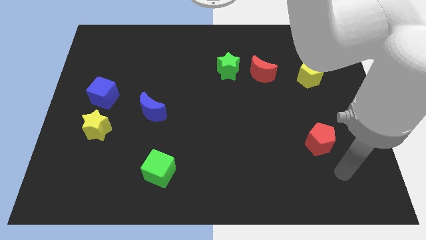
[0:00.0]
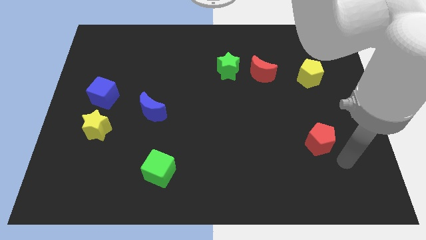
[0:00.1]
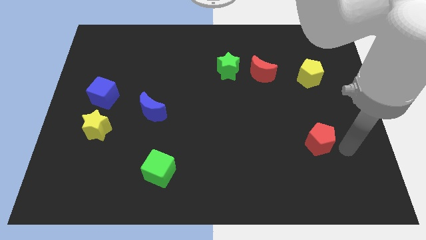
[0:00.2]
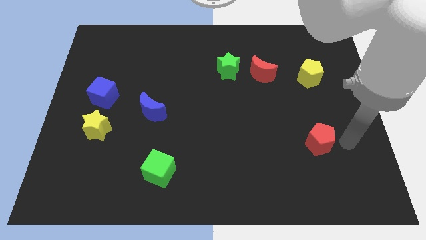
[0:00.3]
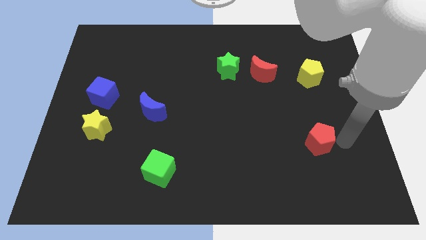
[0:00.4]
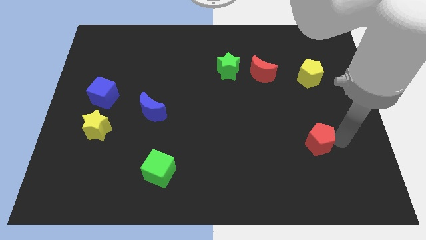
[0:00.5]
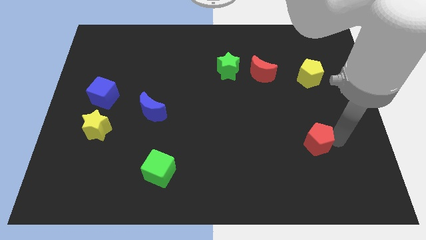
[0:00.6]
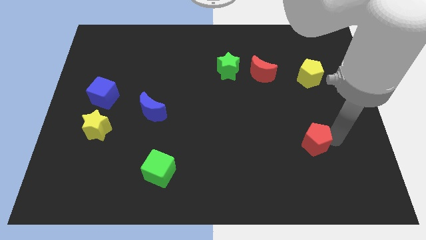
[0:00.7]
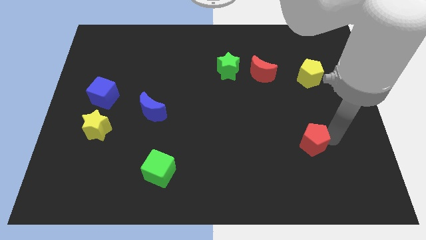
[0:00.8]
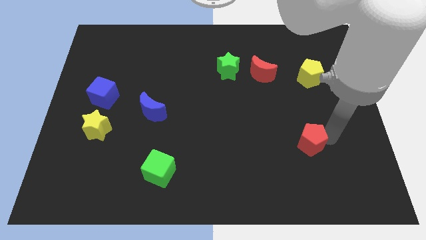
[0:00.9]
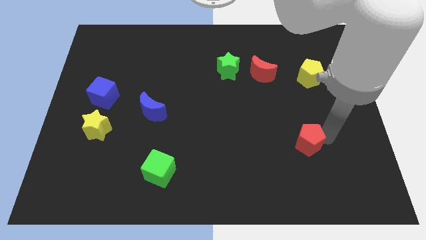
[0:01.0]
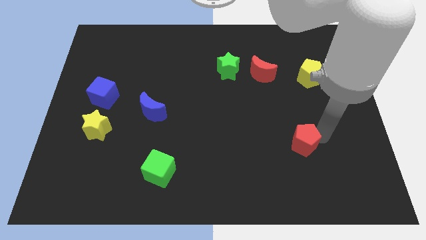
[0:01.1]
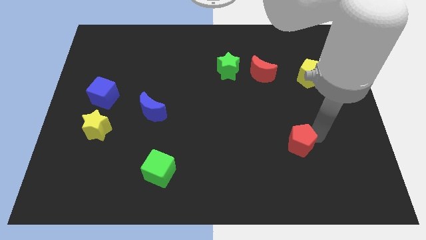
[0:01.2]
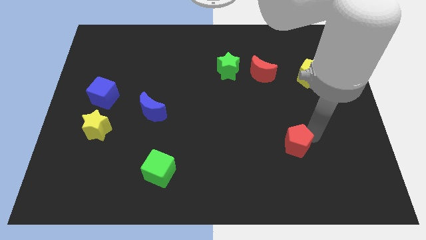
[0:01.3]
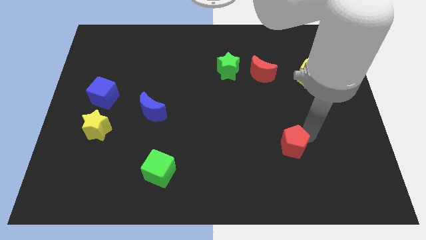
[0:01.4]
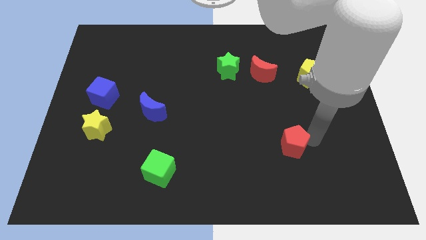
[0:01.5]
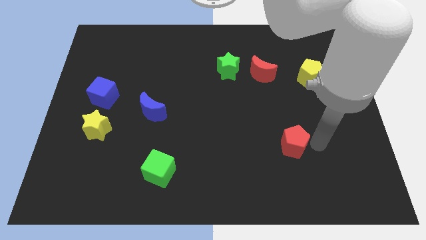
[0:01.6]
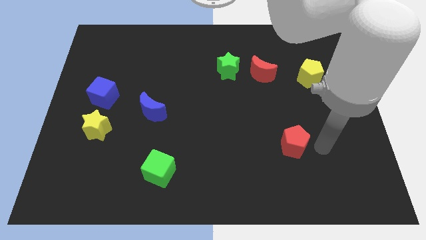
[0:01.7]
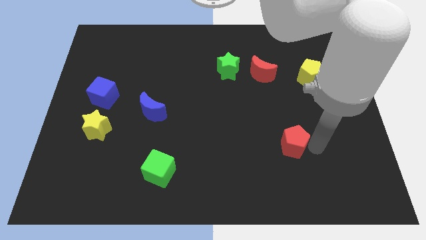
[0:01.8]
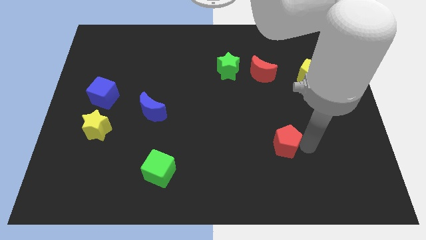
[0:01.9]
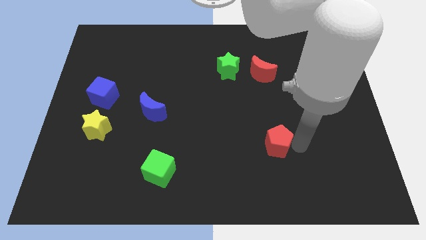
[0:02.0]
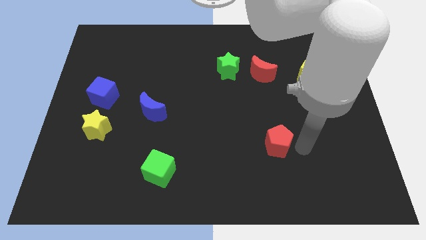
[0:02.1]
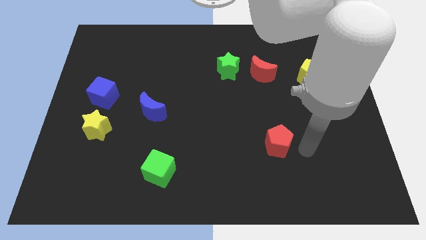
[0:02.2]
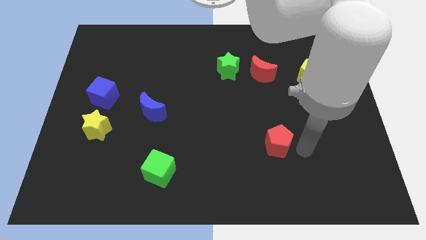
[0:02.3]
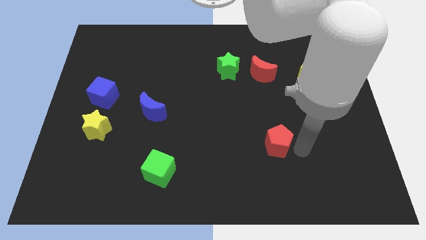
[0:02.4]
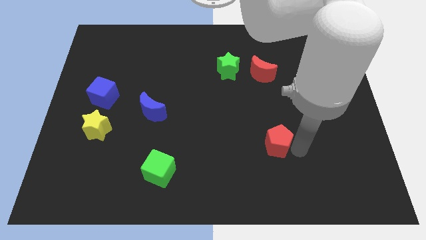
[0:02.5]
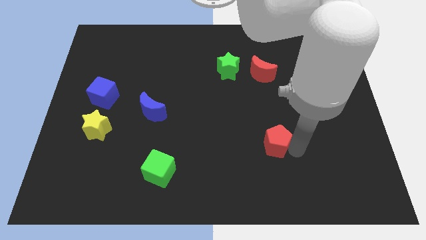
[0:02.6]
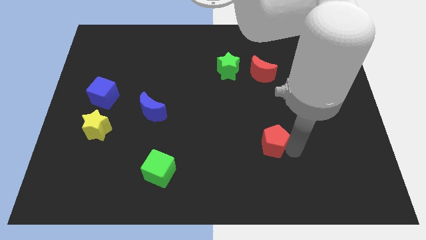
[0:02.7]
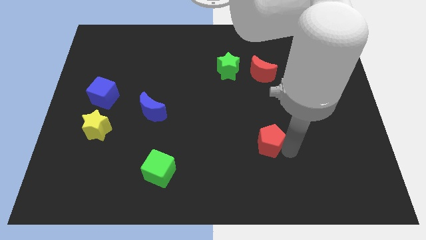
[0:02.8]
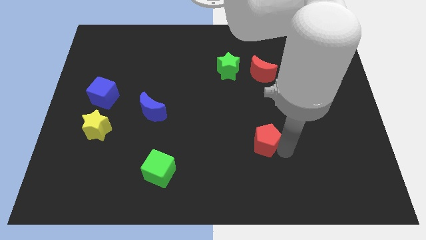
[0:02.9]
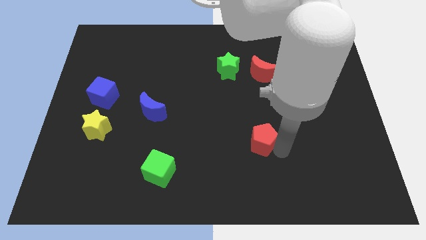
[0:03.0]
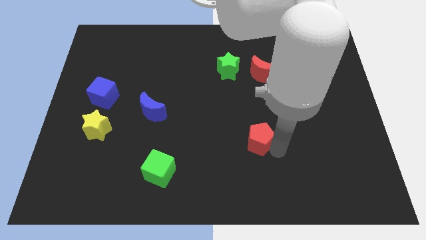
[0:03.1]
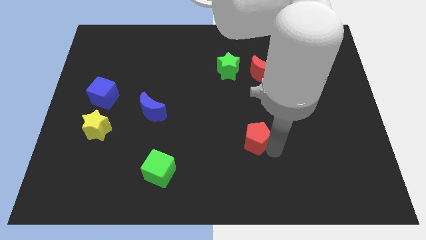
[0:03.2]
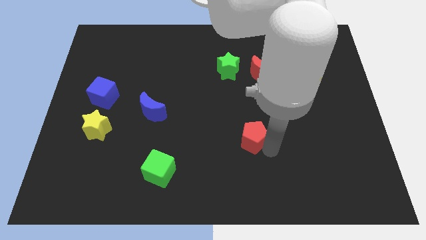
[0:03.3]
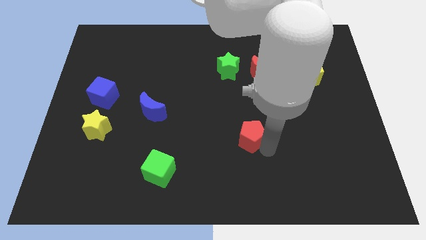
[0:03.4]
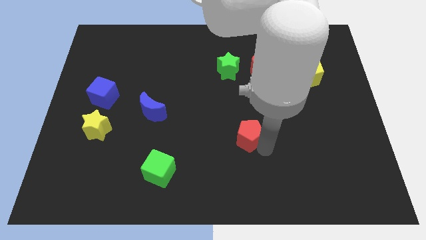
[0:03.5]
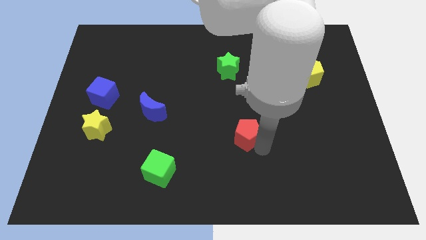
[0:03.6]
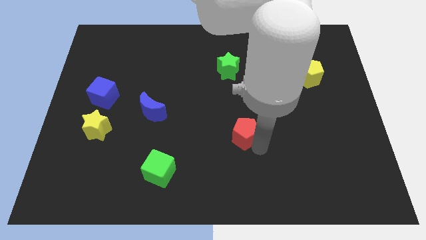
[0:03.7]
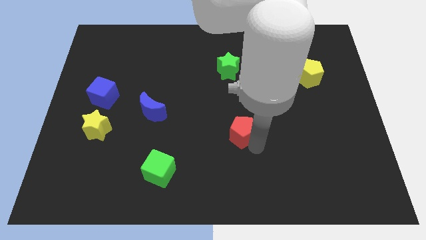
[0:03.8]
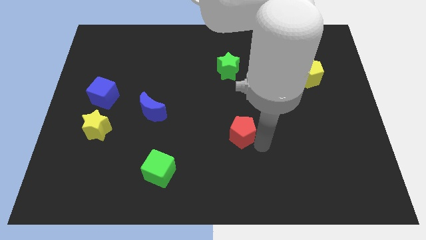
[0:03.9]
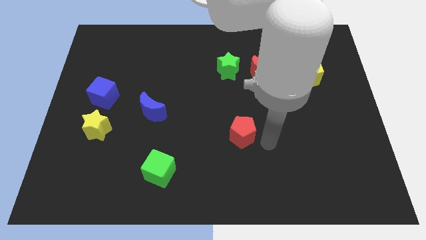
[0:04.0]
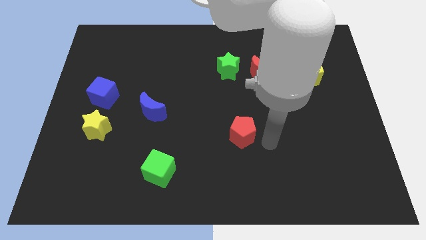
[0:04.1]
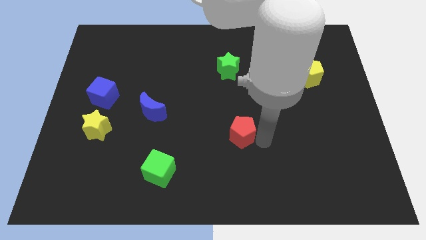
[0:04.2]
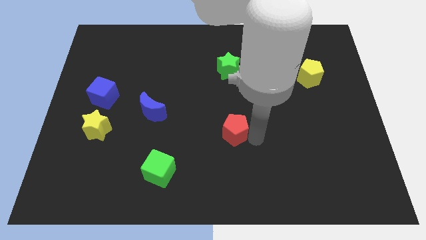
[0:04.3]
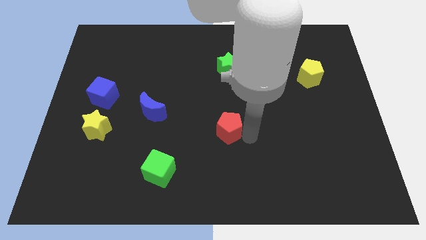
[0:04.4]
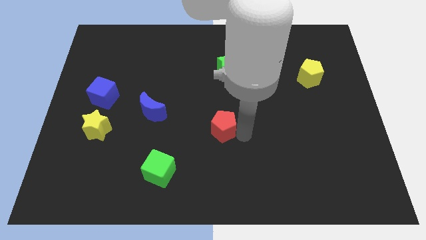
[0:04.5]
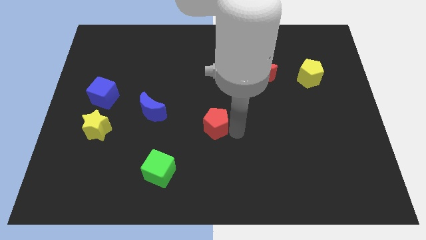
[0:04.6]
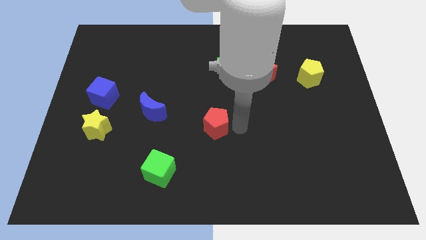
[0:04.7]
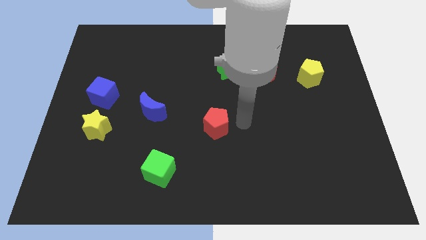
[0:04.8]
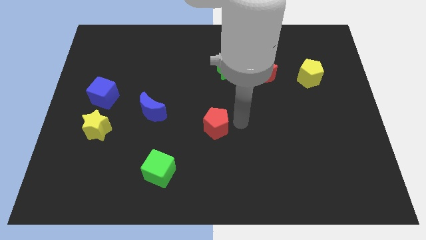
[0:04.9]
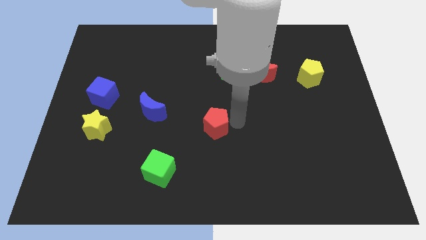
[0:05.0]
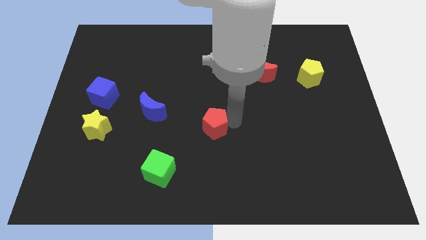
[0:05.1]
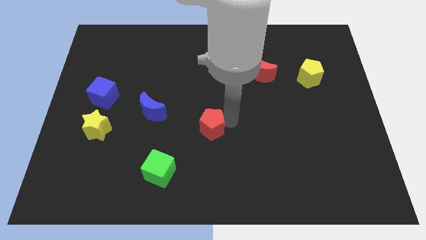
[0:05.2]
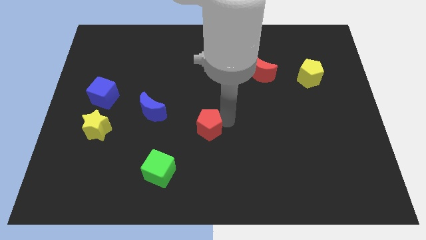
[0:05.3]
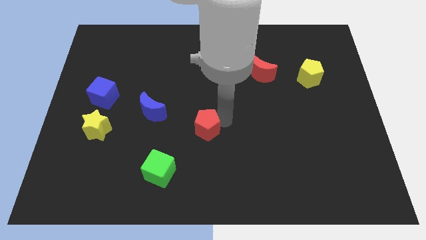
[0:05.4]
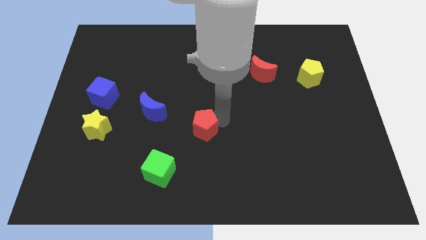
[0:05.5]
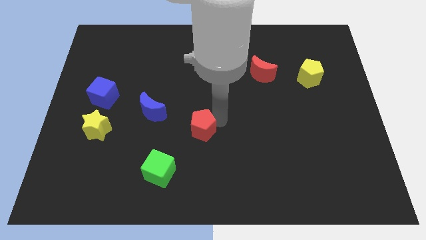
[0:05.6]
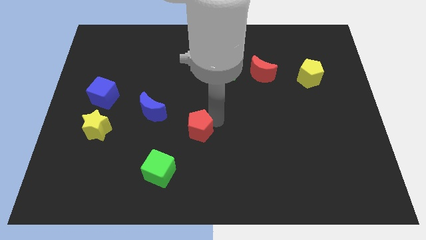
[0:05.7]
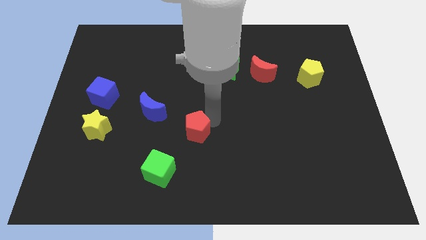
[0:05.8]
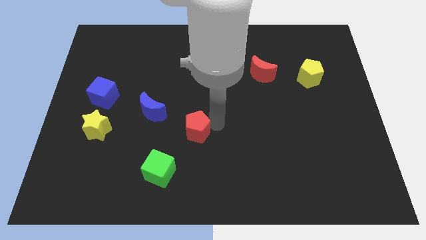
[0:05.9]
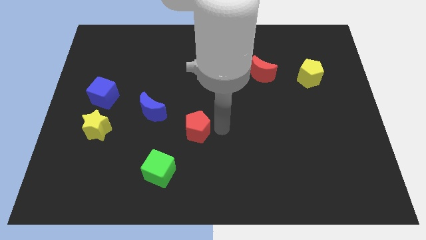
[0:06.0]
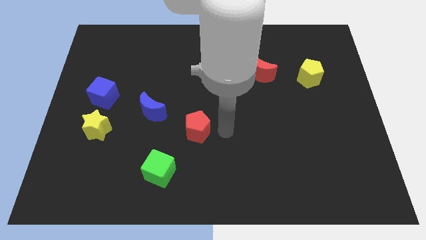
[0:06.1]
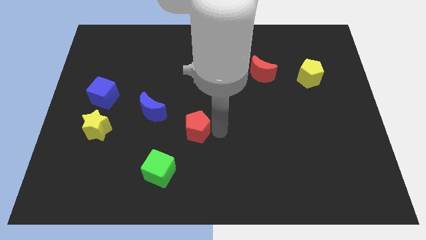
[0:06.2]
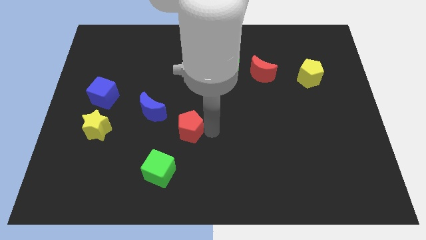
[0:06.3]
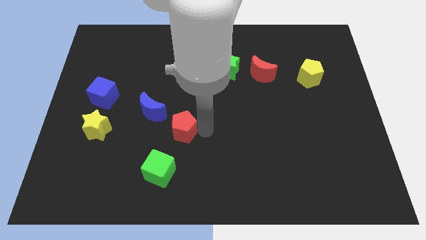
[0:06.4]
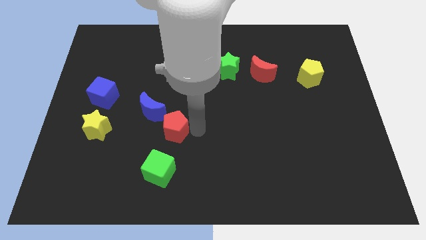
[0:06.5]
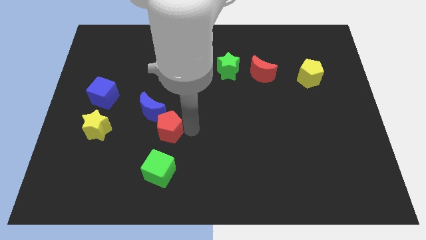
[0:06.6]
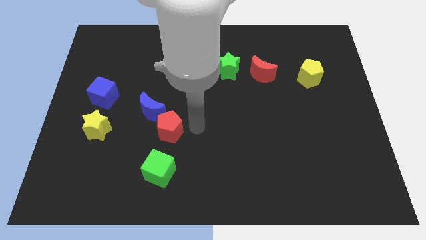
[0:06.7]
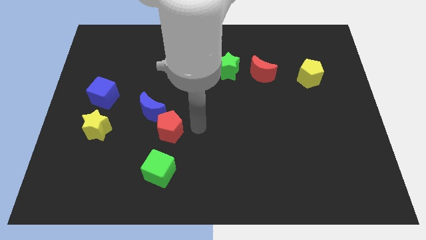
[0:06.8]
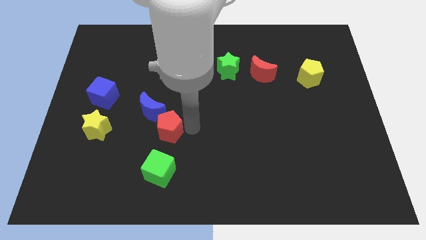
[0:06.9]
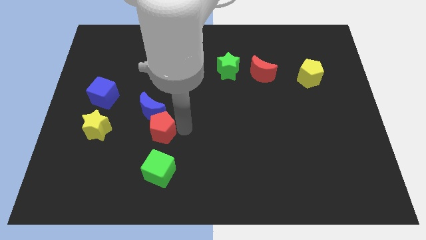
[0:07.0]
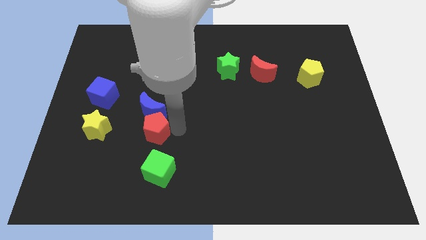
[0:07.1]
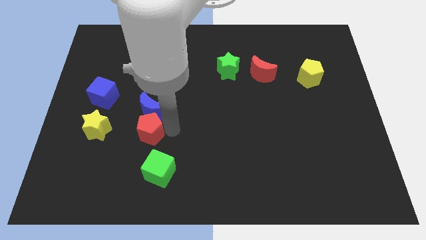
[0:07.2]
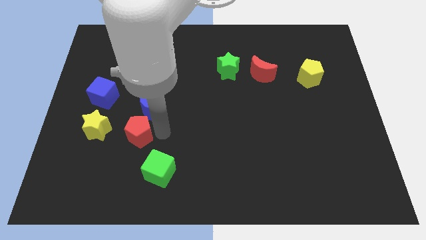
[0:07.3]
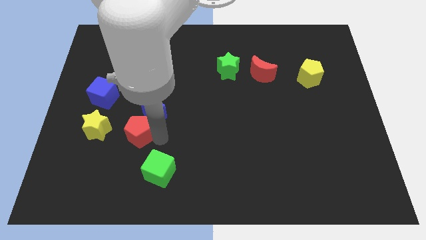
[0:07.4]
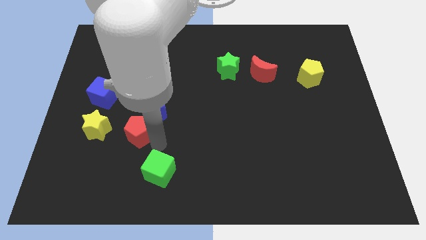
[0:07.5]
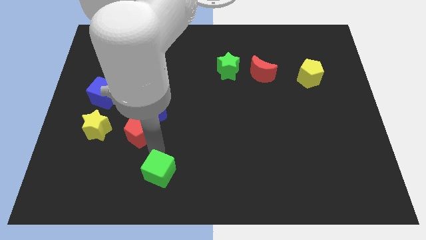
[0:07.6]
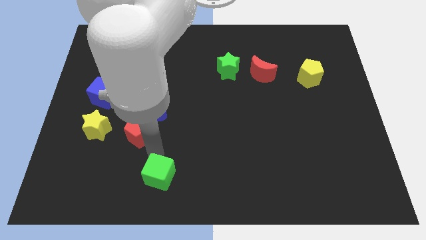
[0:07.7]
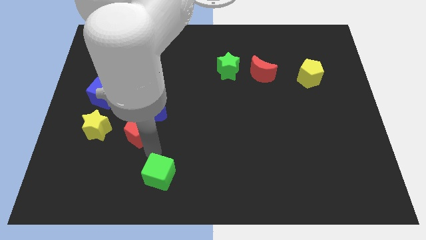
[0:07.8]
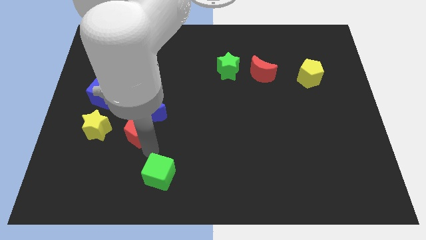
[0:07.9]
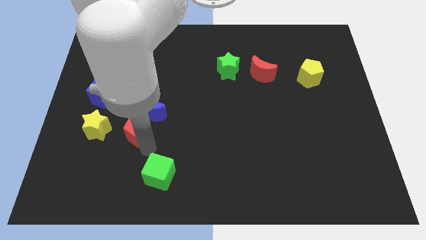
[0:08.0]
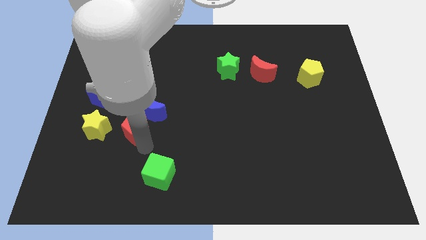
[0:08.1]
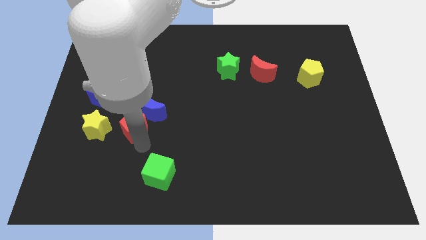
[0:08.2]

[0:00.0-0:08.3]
push the red pentagon to the bottom right of the blue cube
